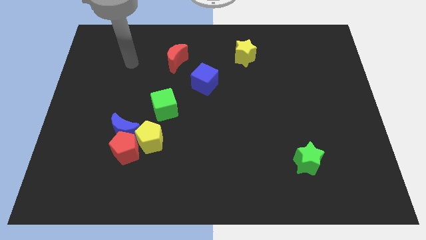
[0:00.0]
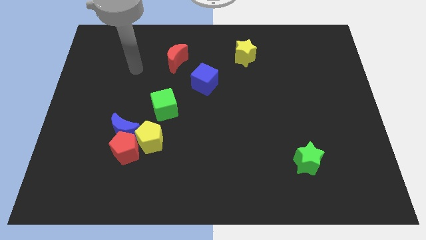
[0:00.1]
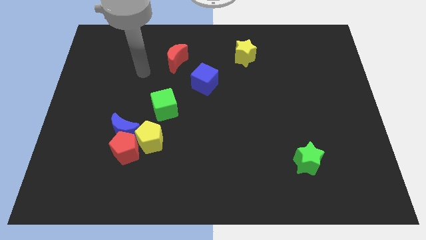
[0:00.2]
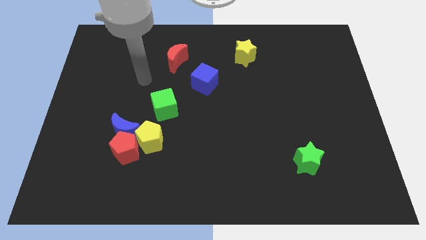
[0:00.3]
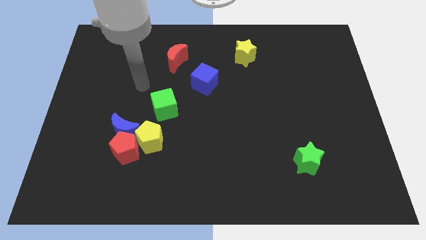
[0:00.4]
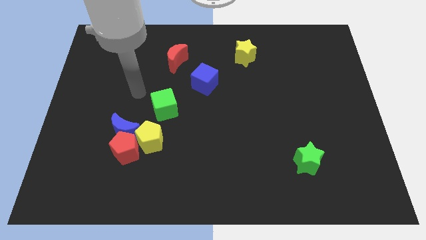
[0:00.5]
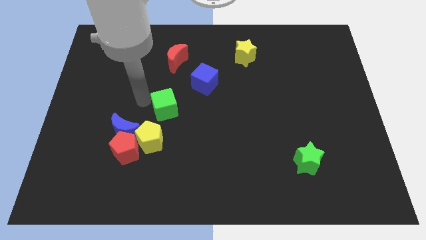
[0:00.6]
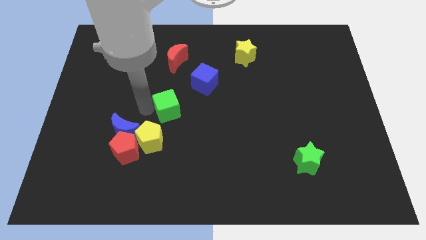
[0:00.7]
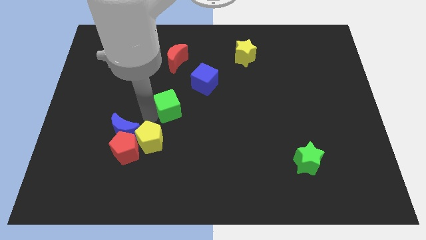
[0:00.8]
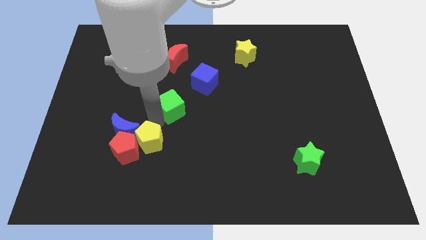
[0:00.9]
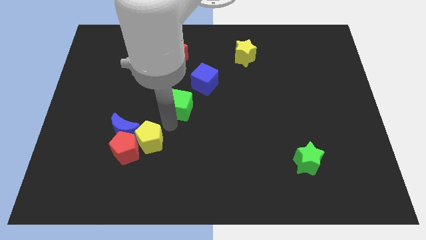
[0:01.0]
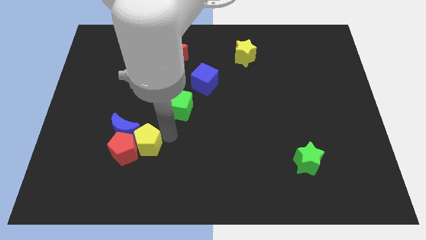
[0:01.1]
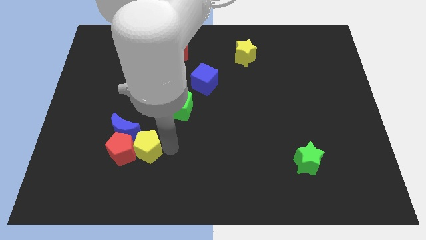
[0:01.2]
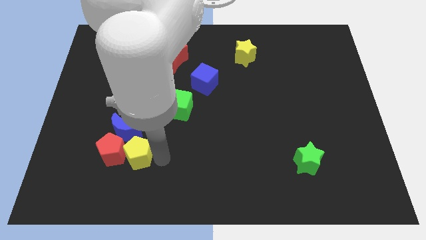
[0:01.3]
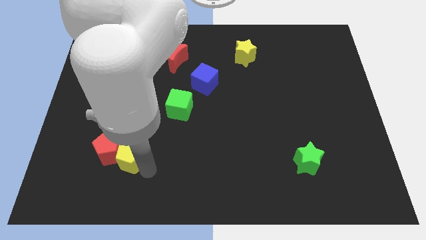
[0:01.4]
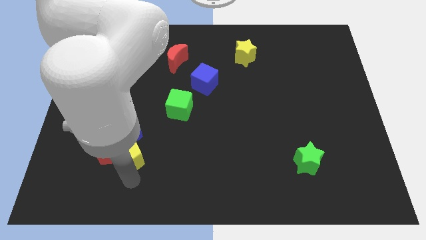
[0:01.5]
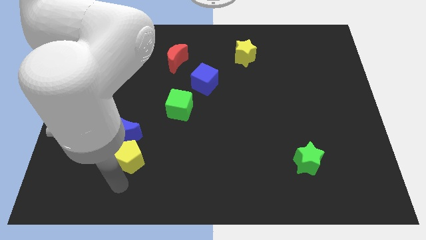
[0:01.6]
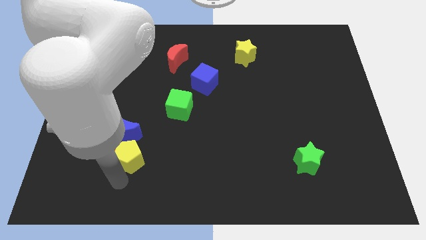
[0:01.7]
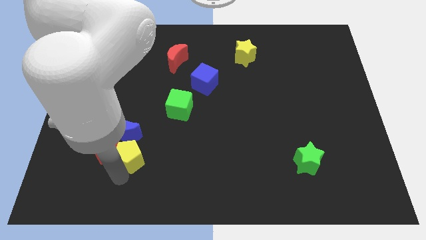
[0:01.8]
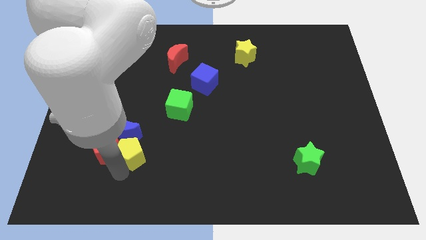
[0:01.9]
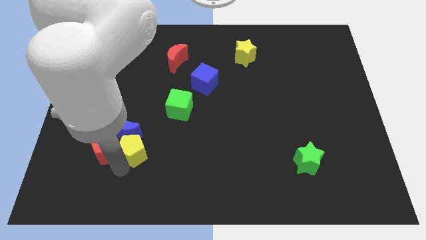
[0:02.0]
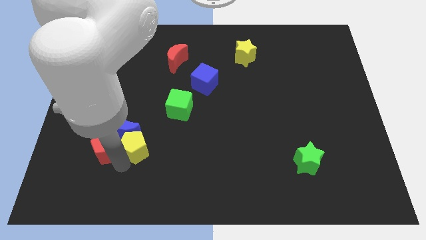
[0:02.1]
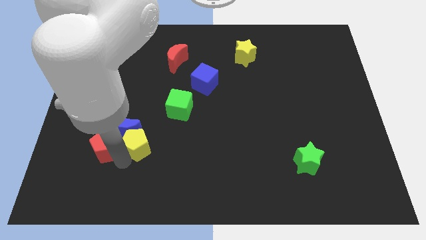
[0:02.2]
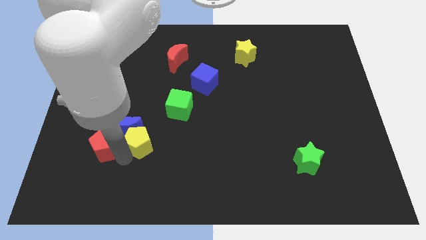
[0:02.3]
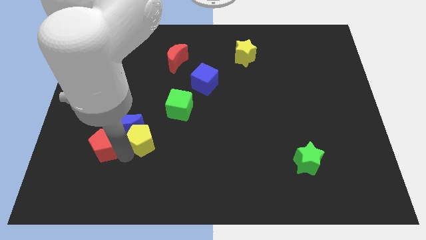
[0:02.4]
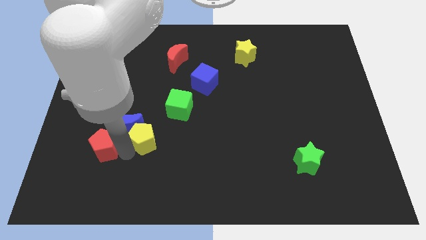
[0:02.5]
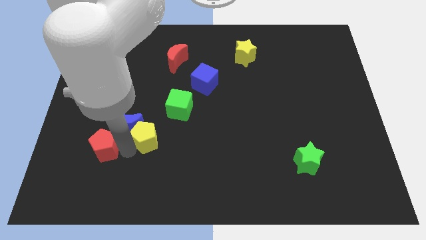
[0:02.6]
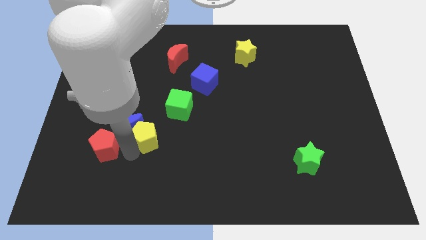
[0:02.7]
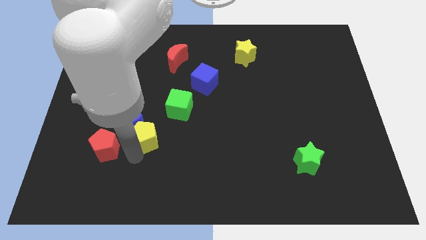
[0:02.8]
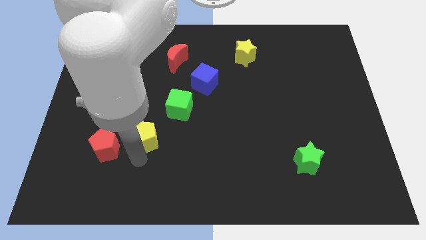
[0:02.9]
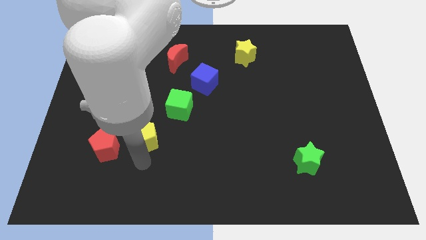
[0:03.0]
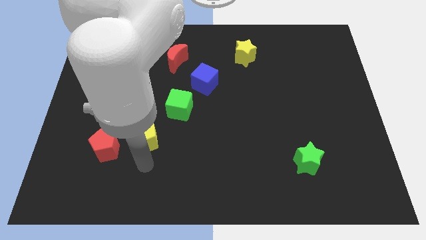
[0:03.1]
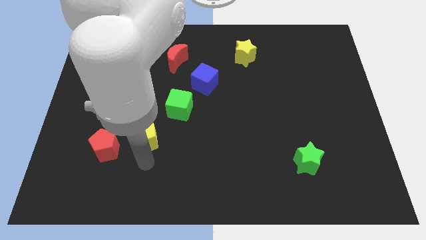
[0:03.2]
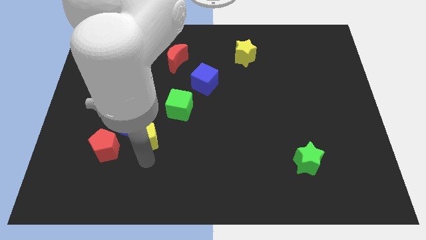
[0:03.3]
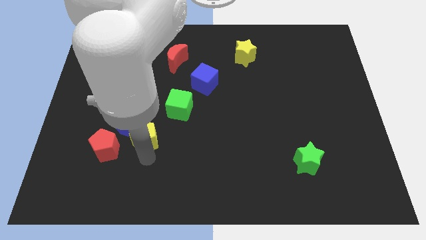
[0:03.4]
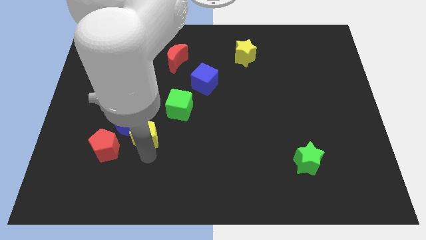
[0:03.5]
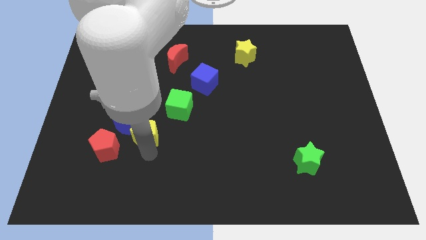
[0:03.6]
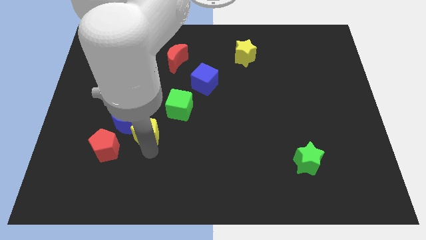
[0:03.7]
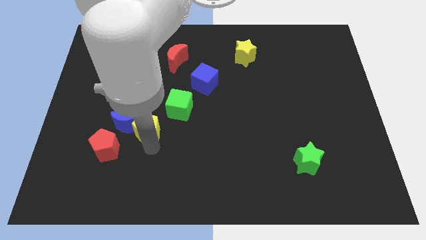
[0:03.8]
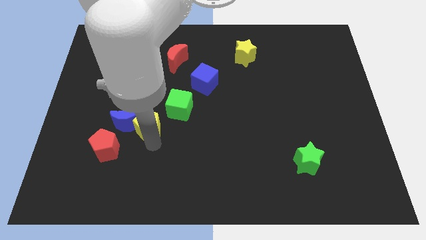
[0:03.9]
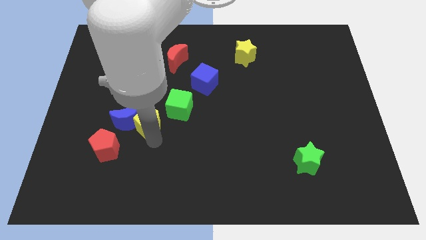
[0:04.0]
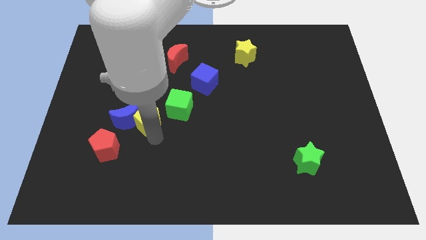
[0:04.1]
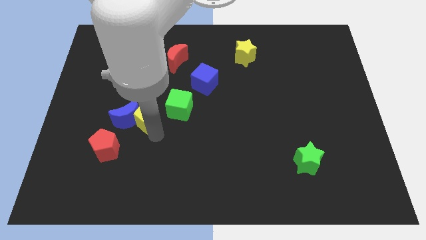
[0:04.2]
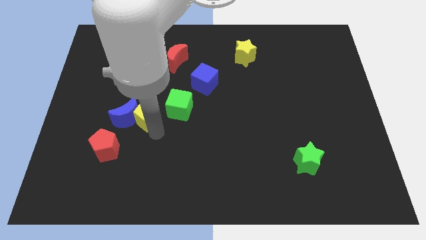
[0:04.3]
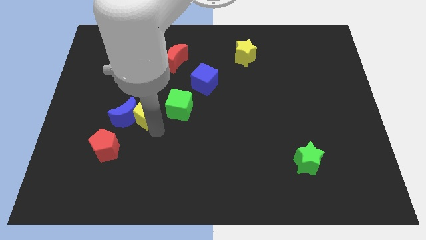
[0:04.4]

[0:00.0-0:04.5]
slide the yellow pentagon somewhat up

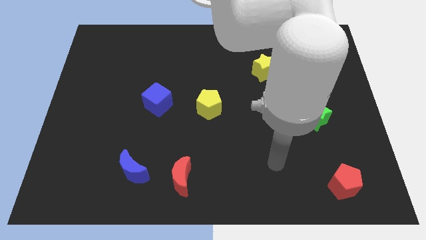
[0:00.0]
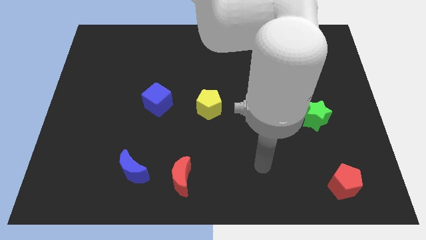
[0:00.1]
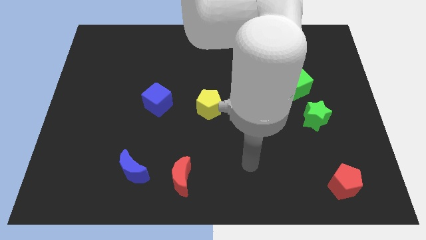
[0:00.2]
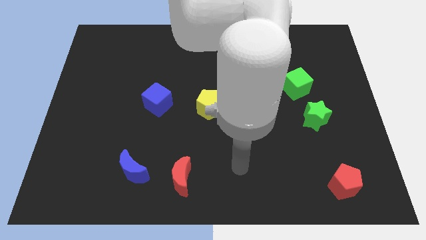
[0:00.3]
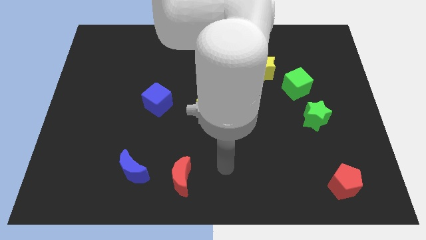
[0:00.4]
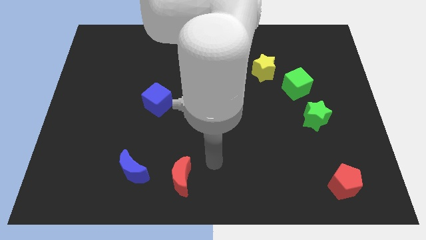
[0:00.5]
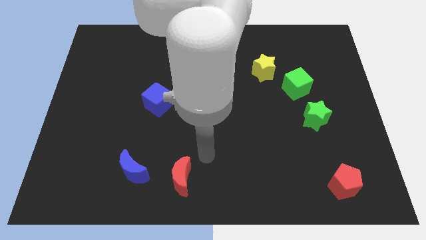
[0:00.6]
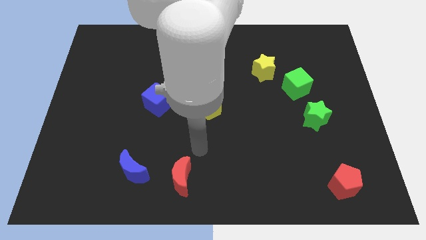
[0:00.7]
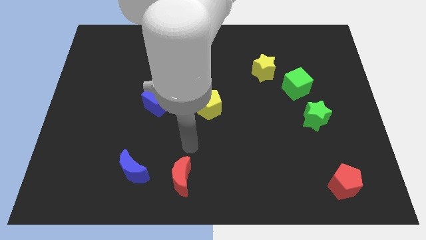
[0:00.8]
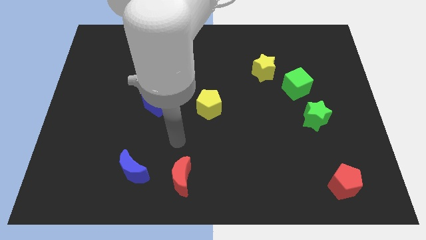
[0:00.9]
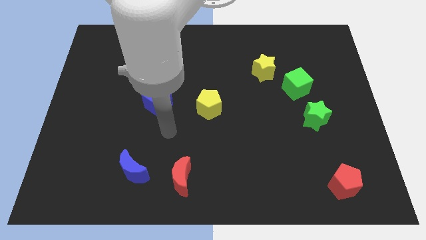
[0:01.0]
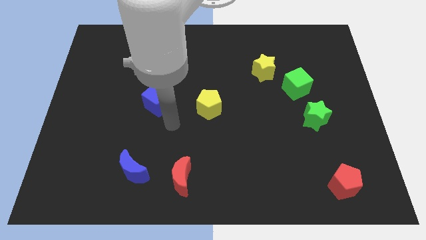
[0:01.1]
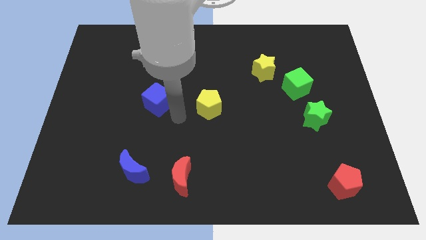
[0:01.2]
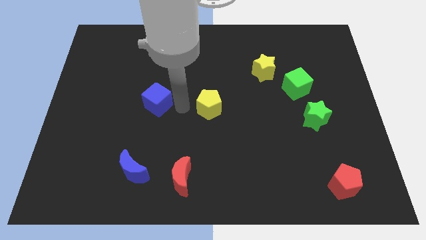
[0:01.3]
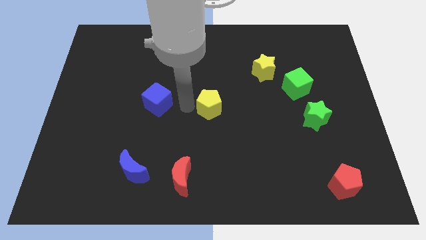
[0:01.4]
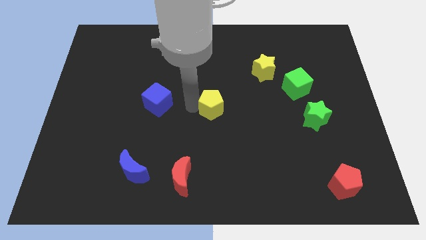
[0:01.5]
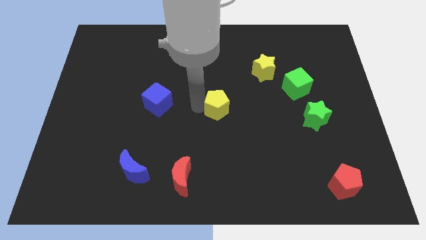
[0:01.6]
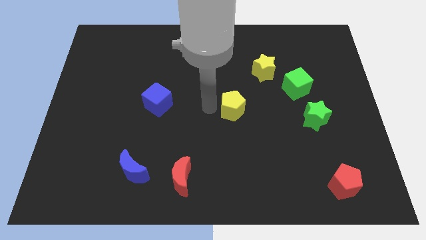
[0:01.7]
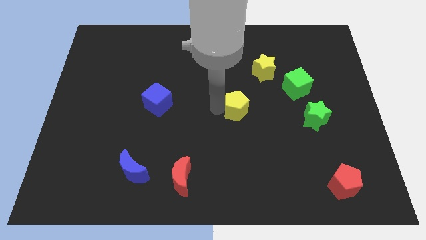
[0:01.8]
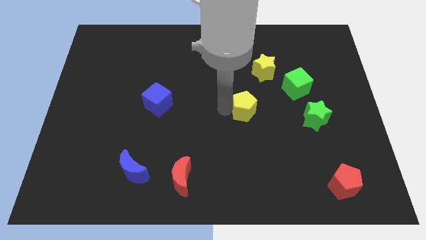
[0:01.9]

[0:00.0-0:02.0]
move the yellow pentagon right somewhat

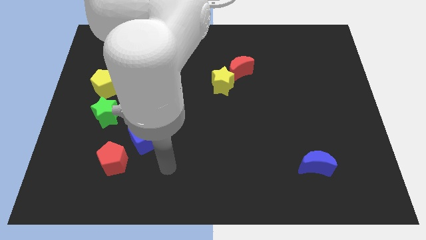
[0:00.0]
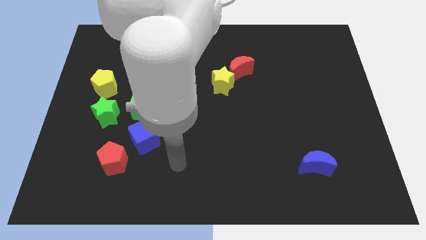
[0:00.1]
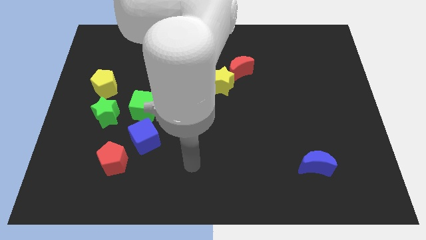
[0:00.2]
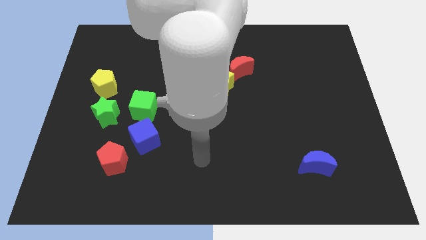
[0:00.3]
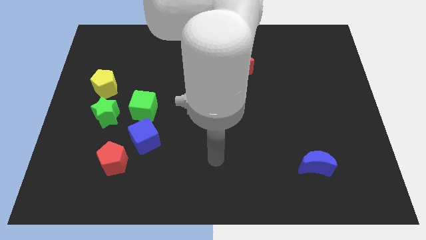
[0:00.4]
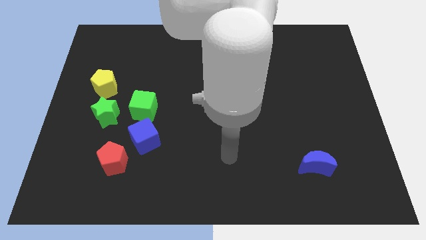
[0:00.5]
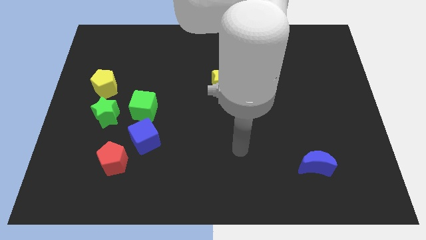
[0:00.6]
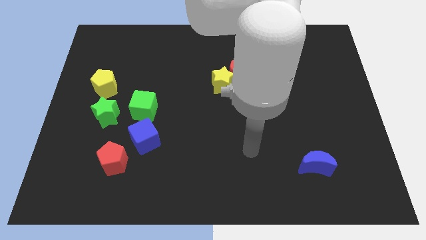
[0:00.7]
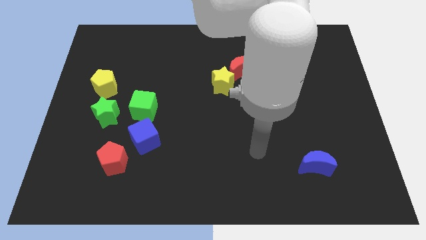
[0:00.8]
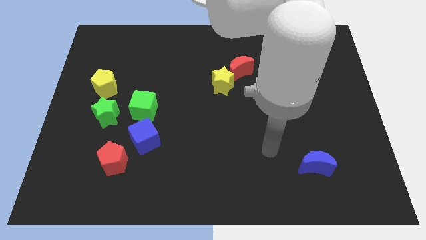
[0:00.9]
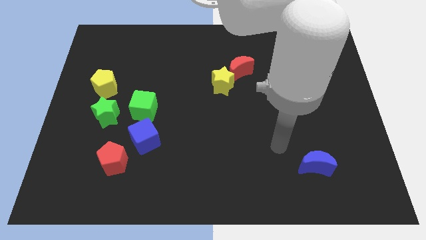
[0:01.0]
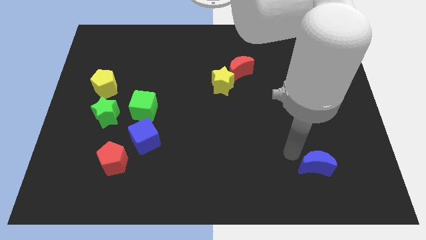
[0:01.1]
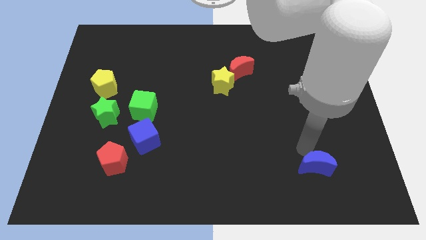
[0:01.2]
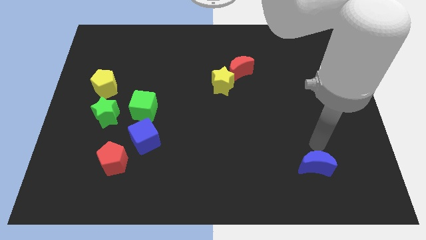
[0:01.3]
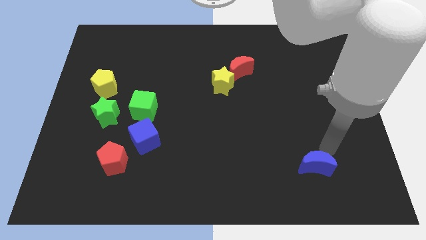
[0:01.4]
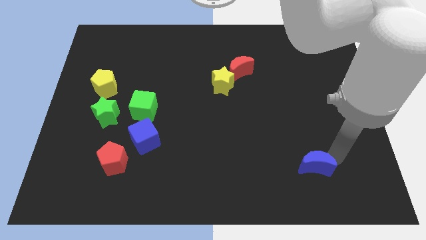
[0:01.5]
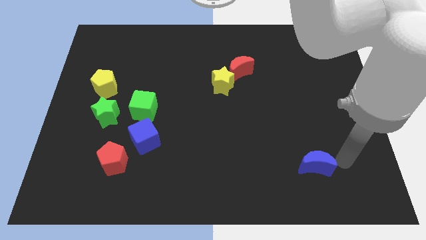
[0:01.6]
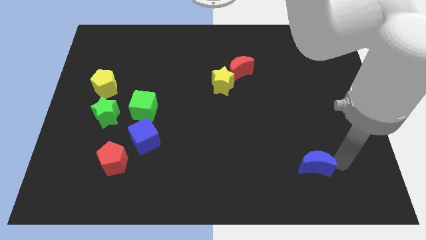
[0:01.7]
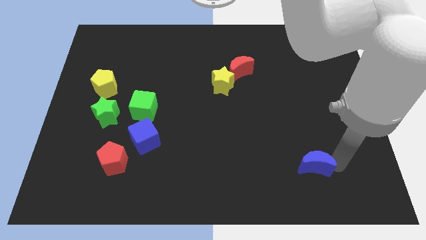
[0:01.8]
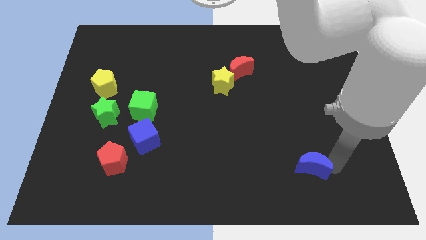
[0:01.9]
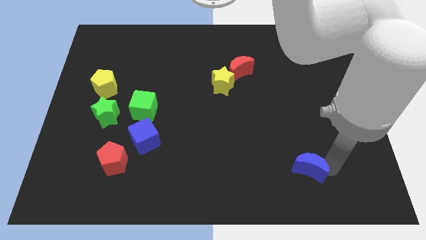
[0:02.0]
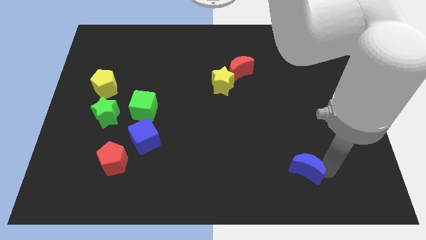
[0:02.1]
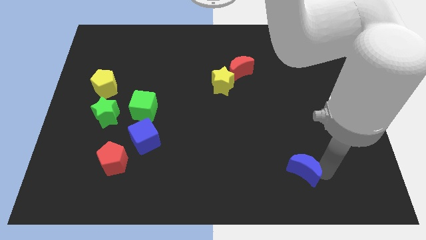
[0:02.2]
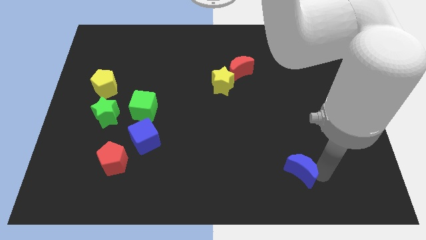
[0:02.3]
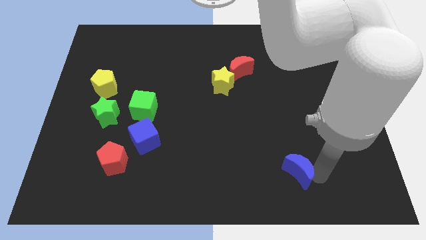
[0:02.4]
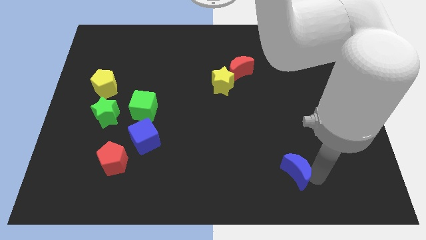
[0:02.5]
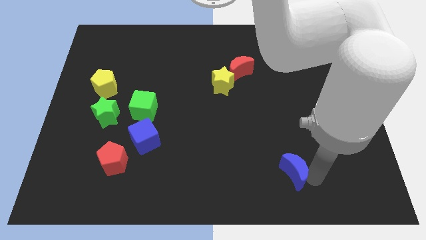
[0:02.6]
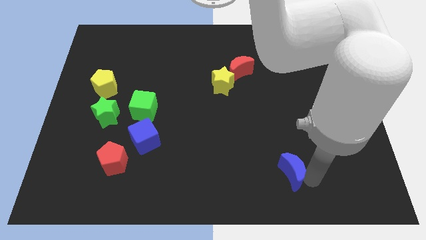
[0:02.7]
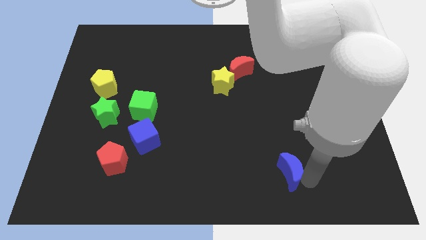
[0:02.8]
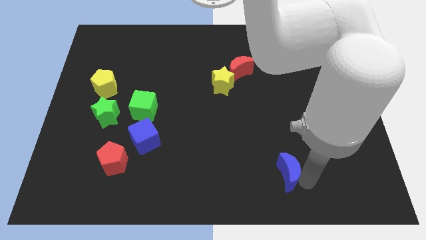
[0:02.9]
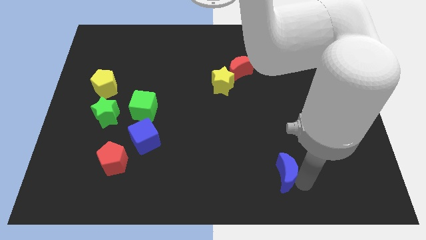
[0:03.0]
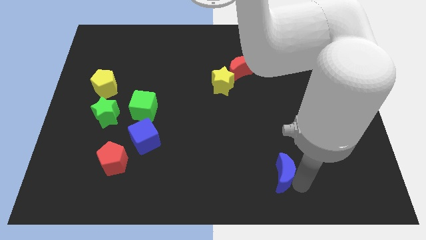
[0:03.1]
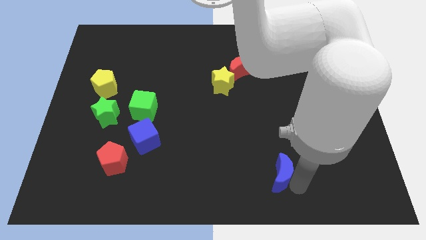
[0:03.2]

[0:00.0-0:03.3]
slightly push the blue moon left
